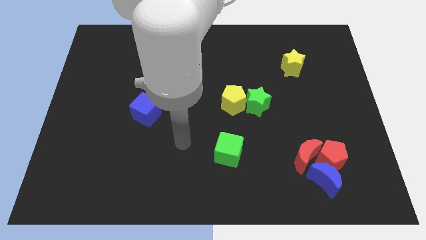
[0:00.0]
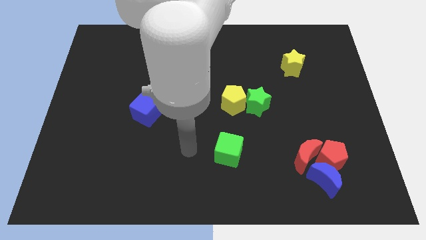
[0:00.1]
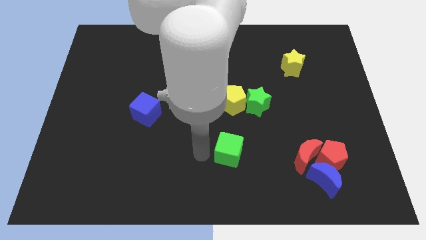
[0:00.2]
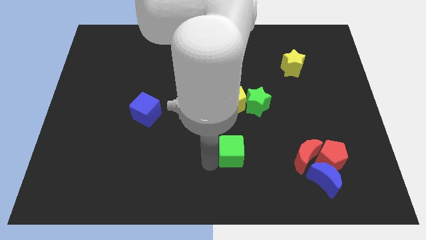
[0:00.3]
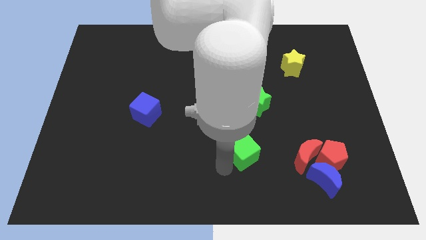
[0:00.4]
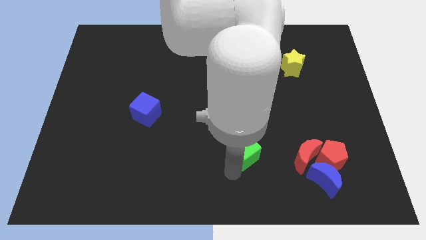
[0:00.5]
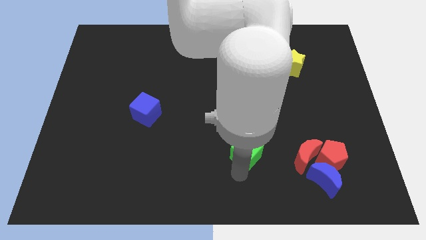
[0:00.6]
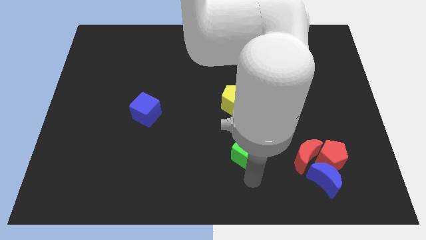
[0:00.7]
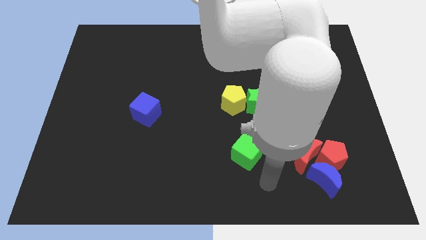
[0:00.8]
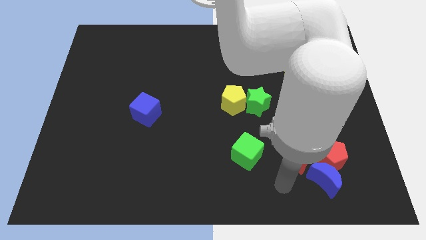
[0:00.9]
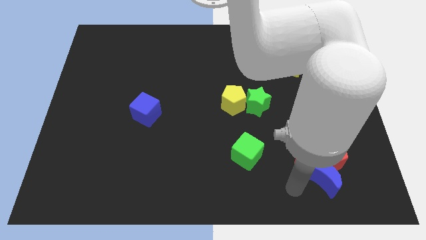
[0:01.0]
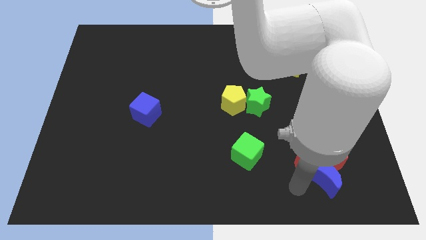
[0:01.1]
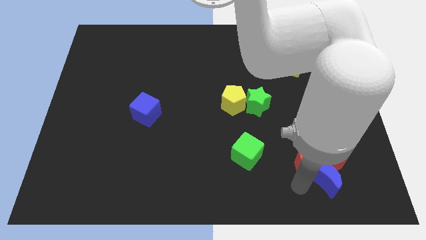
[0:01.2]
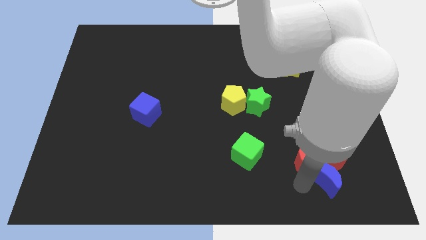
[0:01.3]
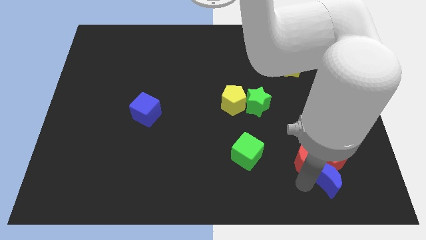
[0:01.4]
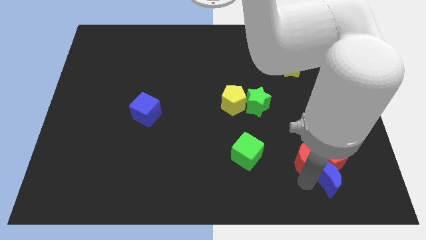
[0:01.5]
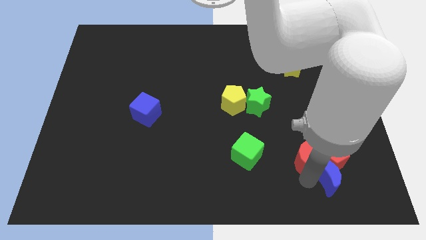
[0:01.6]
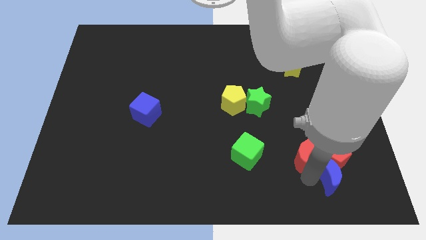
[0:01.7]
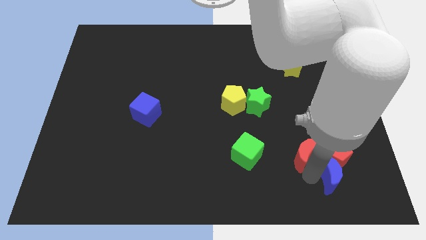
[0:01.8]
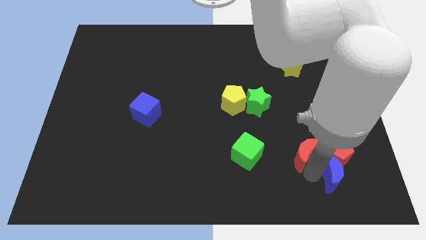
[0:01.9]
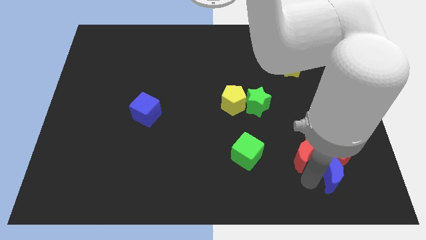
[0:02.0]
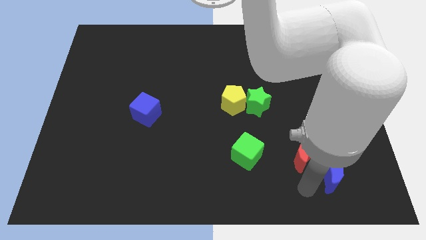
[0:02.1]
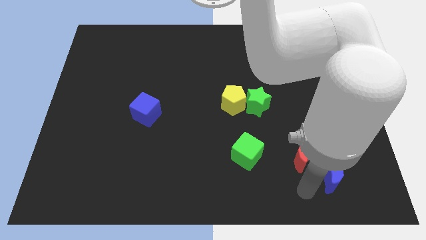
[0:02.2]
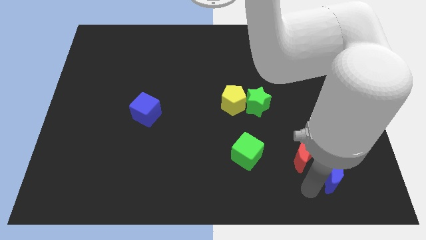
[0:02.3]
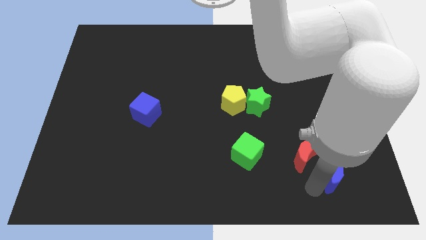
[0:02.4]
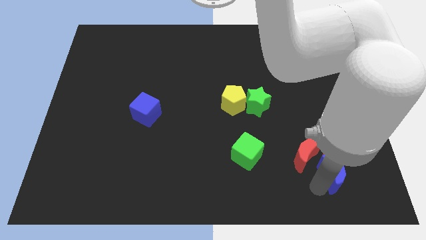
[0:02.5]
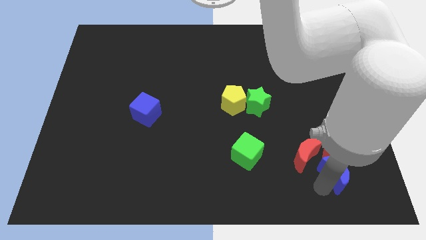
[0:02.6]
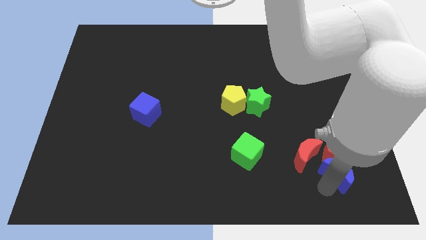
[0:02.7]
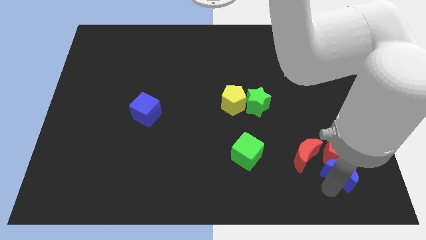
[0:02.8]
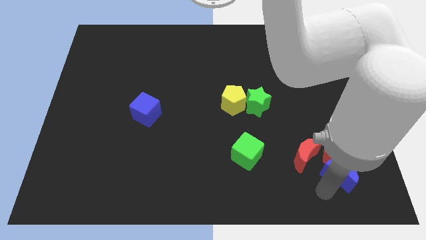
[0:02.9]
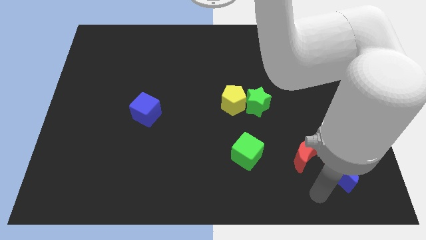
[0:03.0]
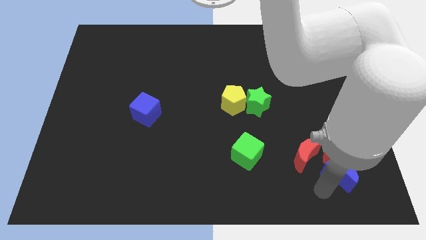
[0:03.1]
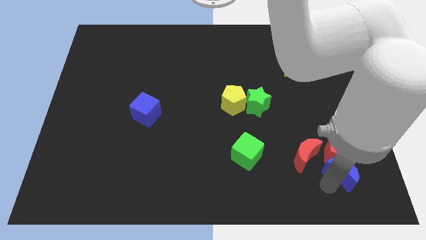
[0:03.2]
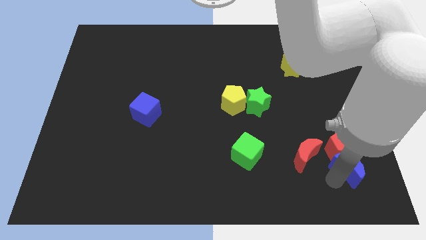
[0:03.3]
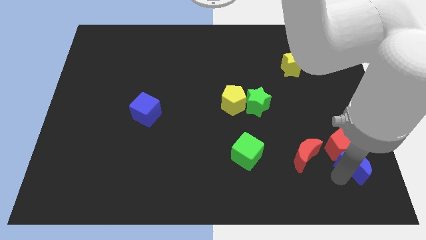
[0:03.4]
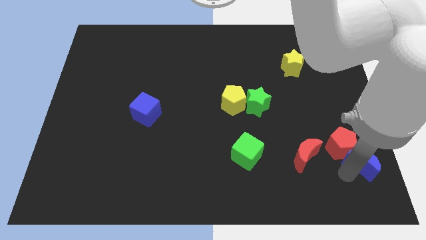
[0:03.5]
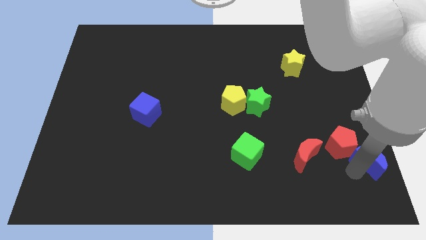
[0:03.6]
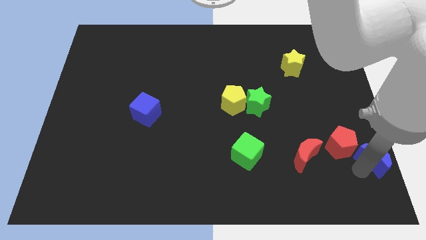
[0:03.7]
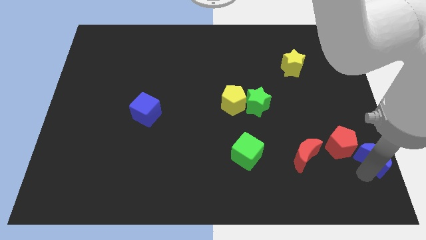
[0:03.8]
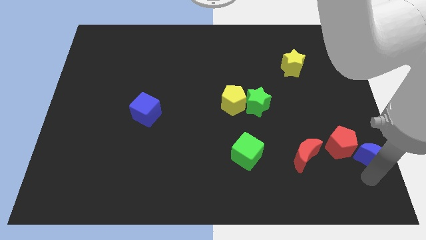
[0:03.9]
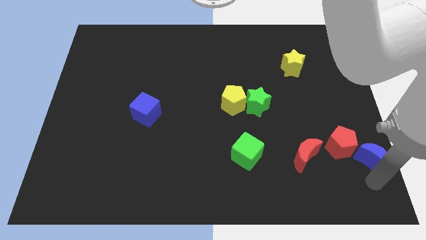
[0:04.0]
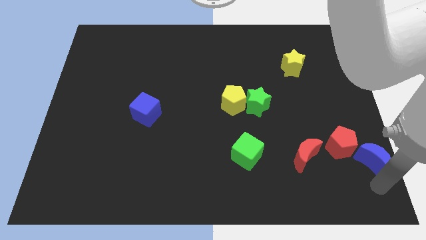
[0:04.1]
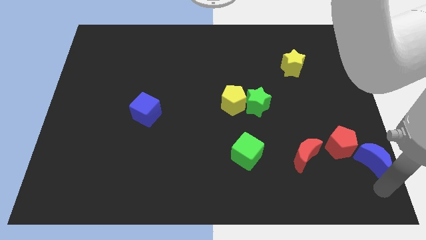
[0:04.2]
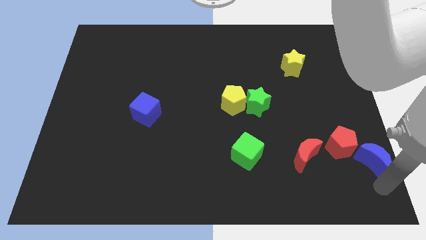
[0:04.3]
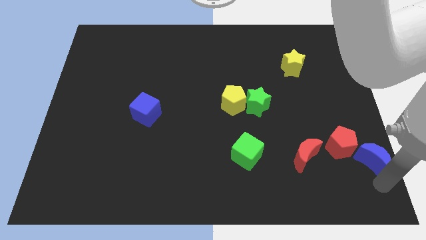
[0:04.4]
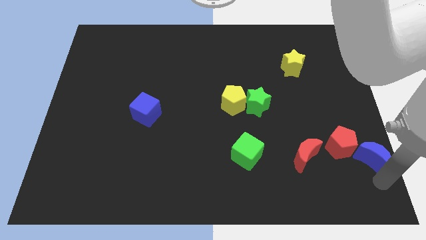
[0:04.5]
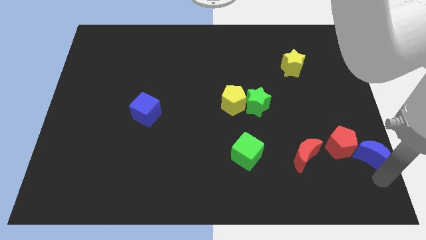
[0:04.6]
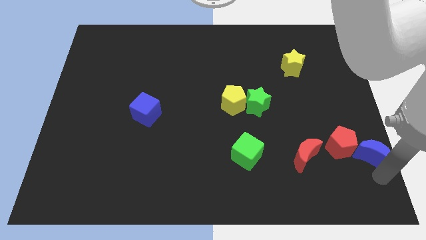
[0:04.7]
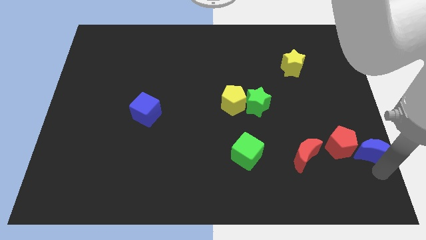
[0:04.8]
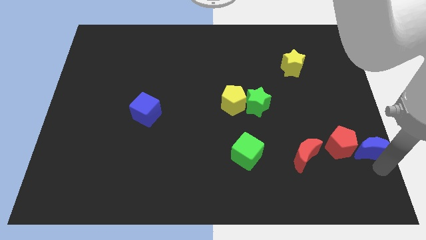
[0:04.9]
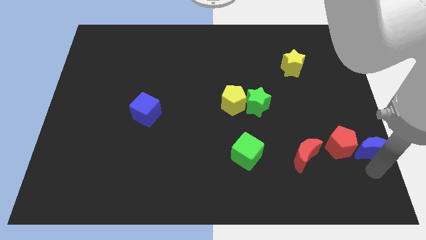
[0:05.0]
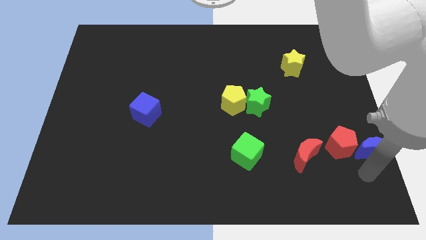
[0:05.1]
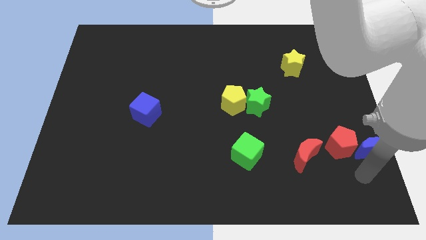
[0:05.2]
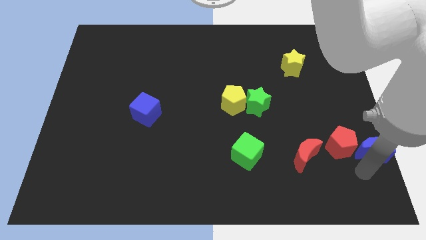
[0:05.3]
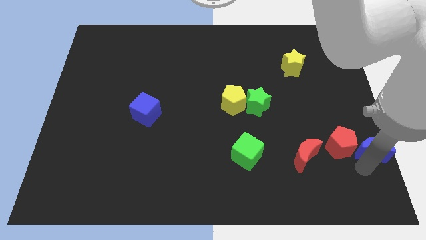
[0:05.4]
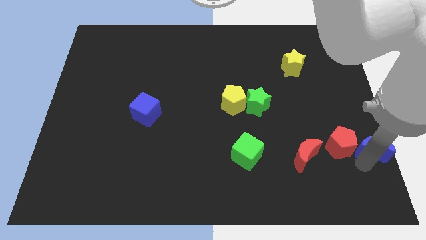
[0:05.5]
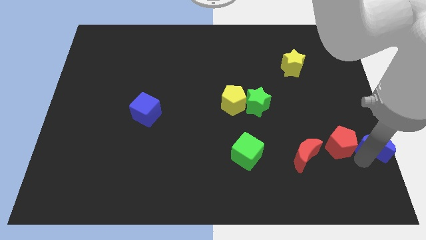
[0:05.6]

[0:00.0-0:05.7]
move the blue moon to the center right

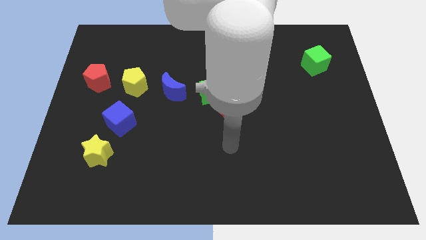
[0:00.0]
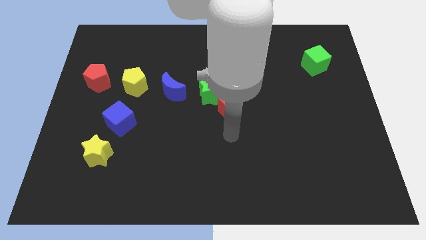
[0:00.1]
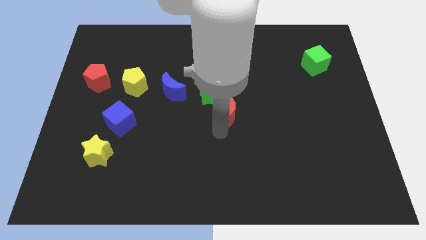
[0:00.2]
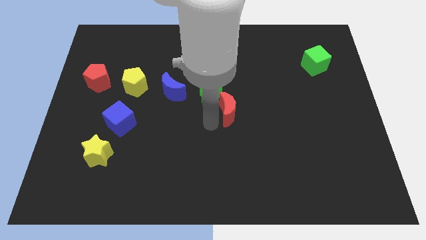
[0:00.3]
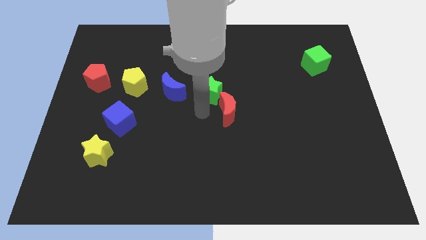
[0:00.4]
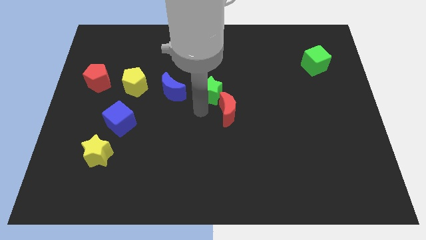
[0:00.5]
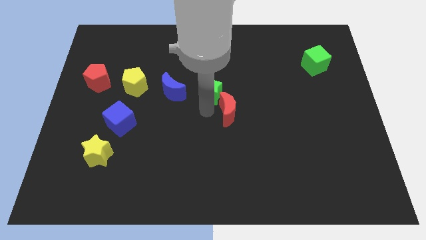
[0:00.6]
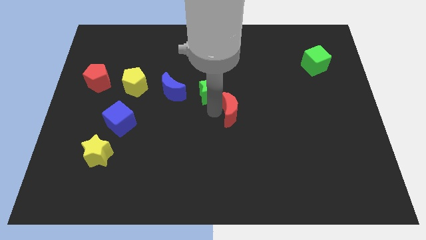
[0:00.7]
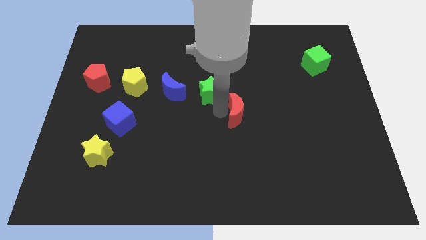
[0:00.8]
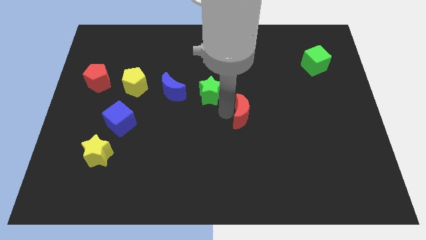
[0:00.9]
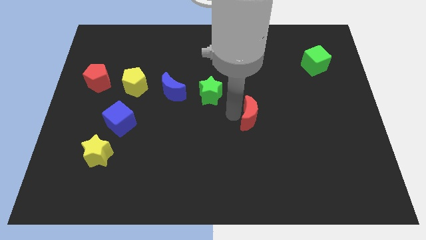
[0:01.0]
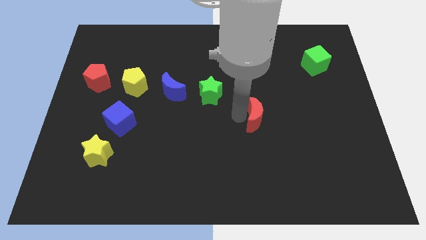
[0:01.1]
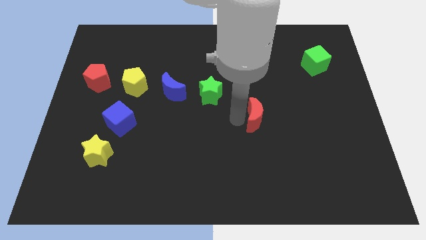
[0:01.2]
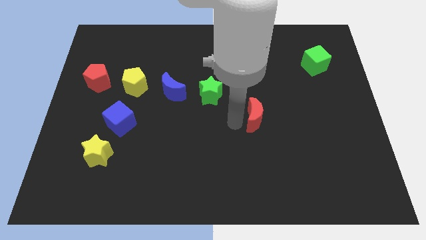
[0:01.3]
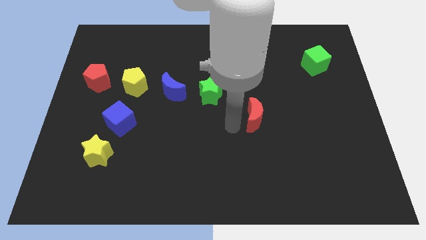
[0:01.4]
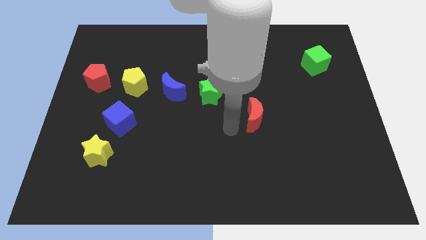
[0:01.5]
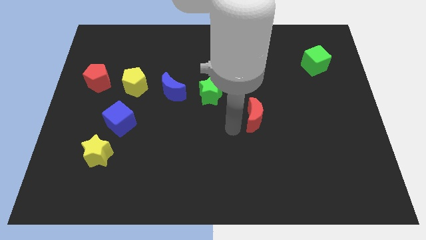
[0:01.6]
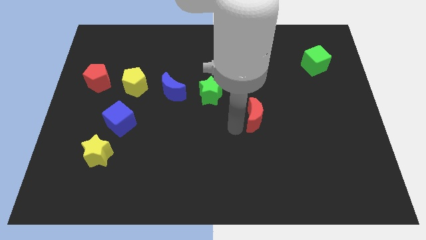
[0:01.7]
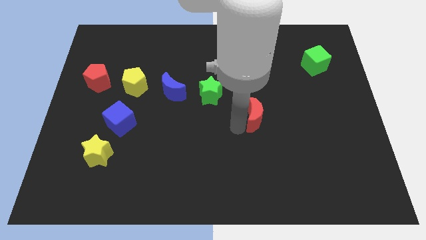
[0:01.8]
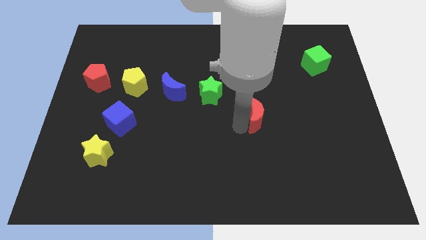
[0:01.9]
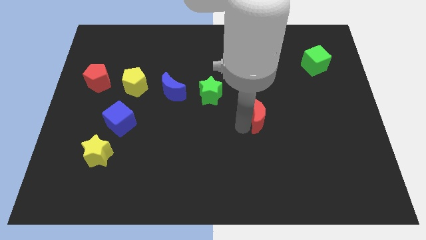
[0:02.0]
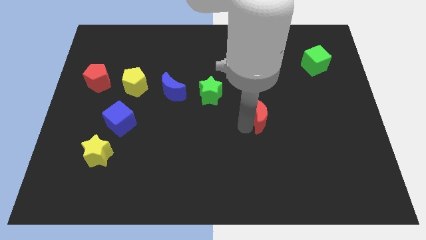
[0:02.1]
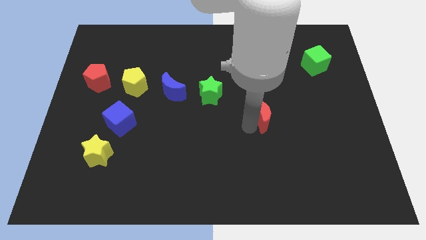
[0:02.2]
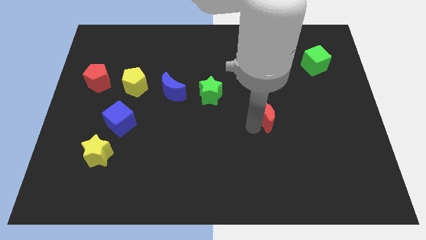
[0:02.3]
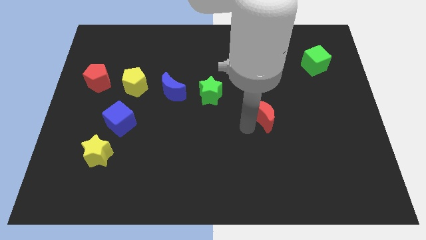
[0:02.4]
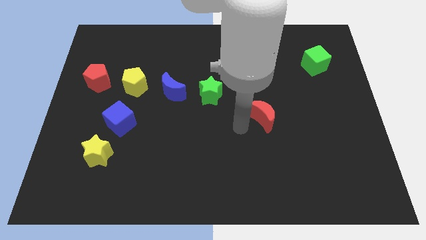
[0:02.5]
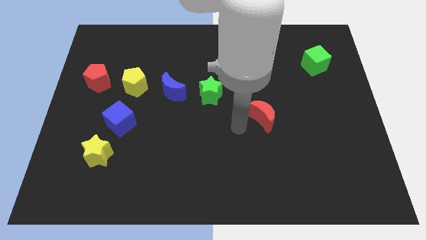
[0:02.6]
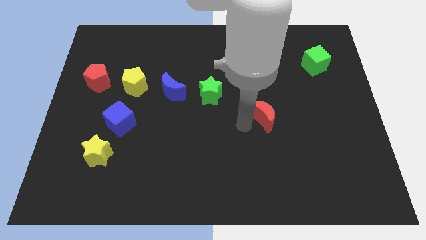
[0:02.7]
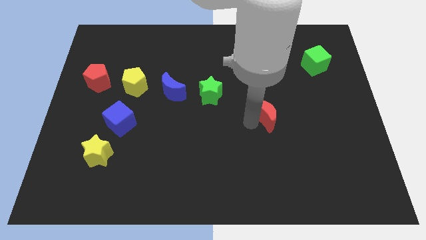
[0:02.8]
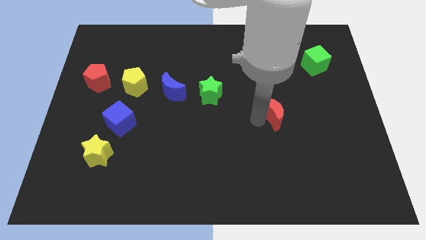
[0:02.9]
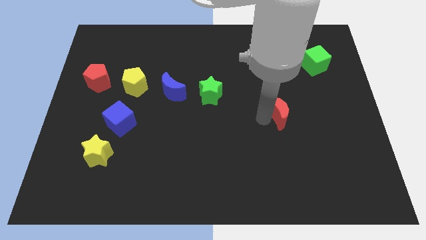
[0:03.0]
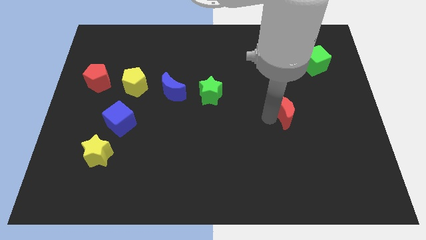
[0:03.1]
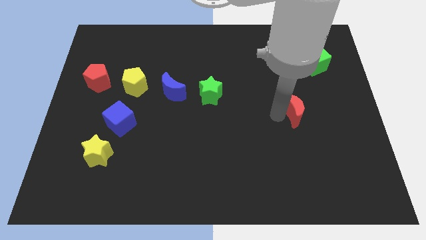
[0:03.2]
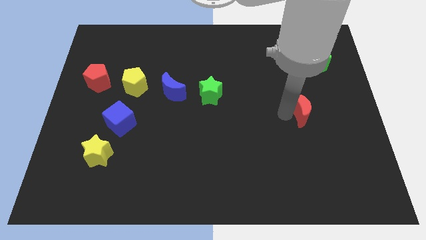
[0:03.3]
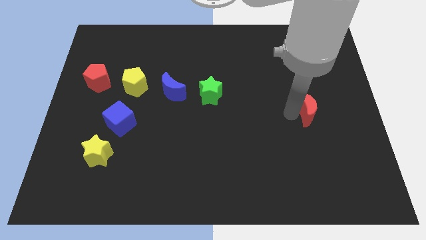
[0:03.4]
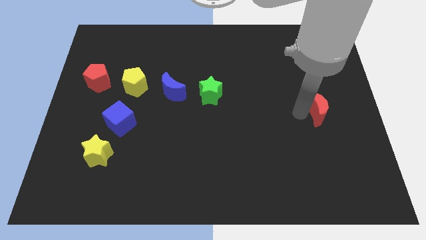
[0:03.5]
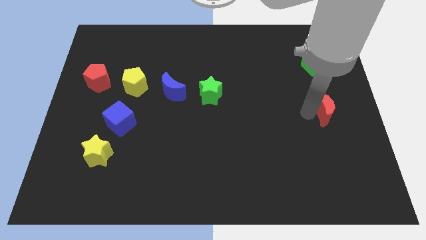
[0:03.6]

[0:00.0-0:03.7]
push the red moon to the center right
